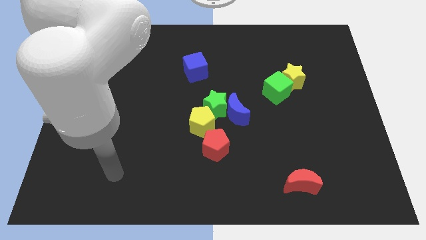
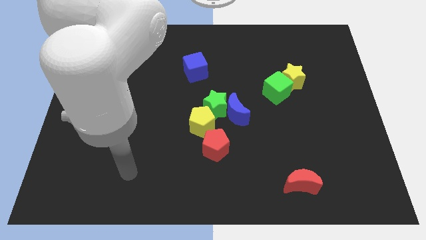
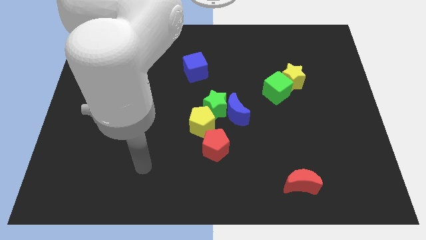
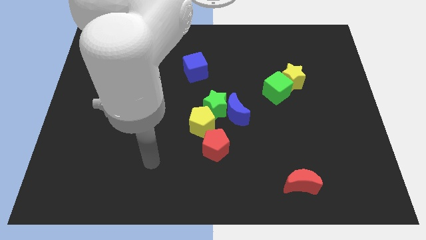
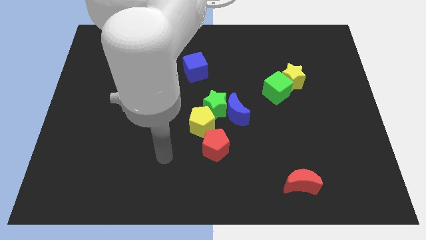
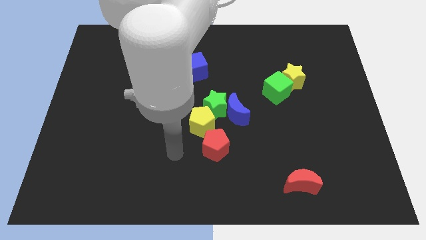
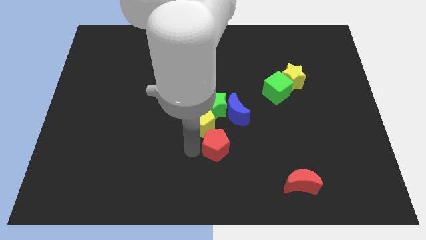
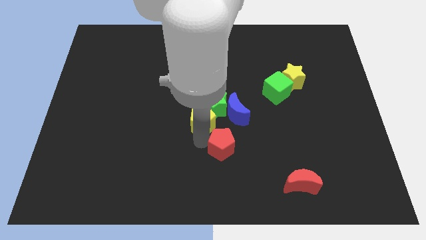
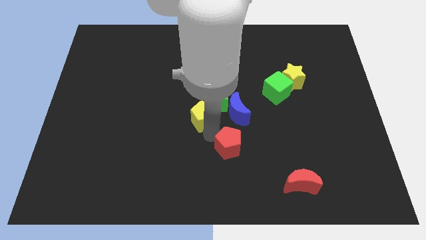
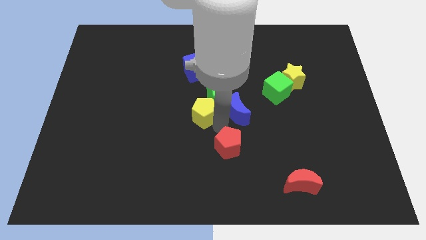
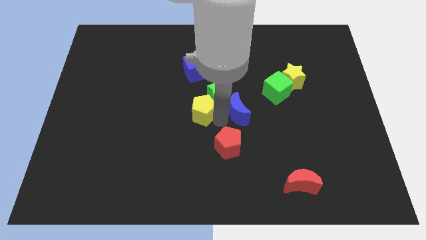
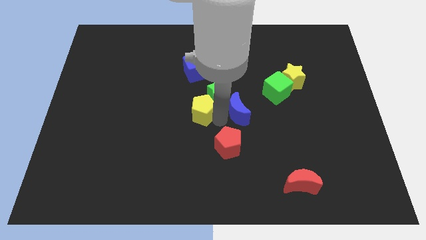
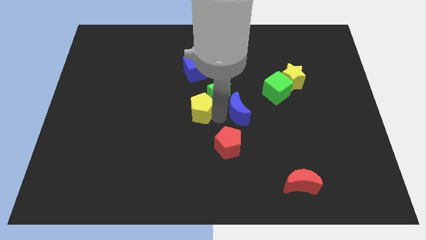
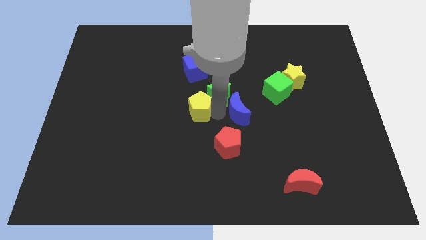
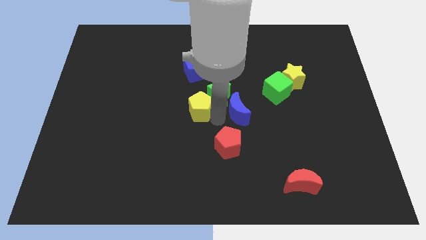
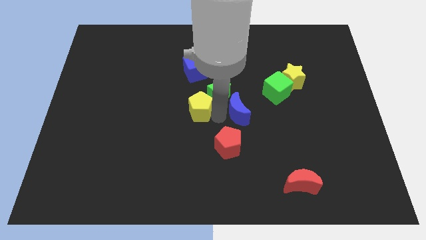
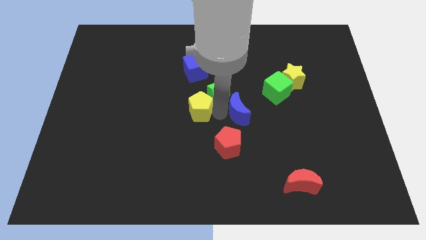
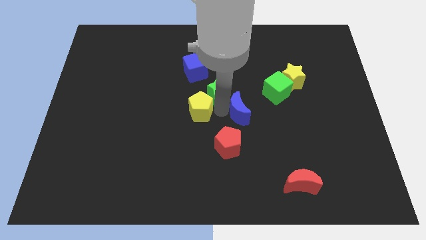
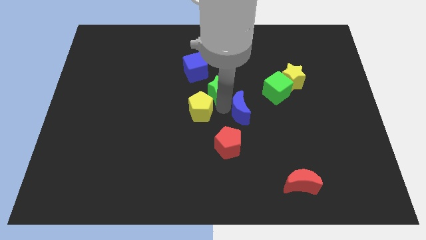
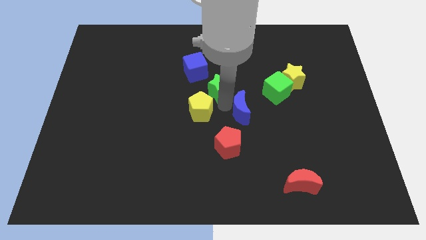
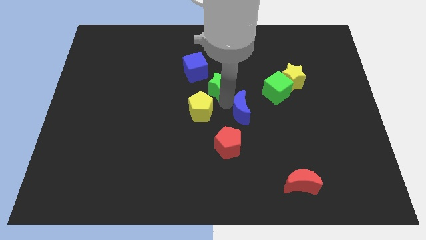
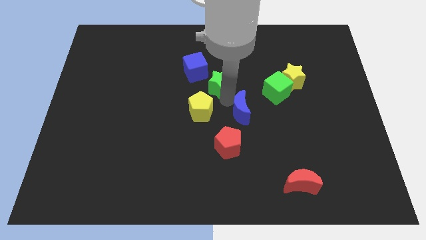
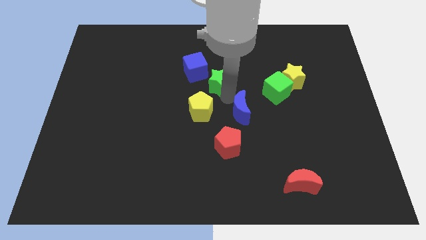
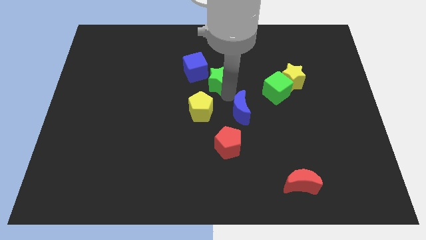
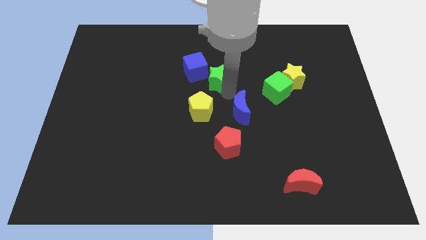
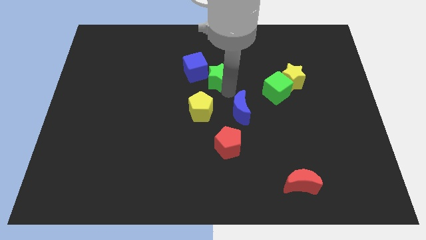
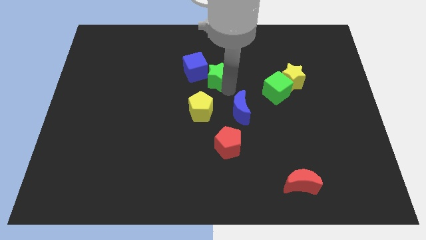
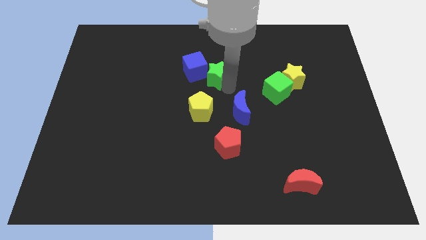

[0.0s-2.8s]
pull the green star apart from the blue moon and yellow pentagon

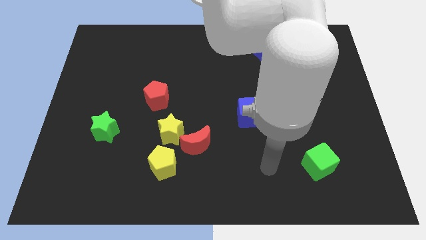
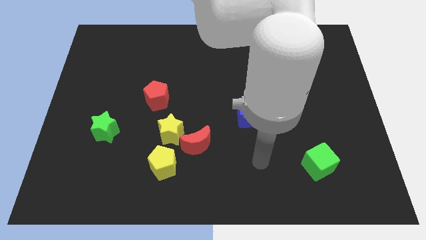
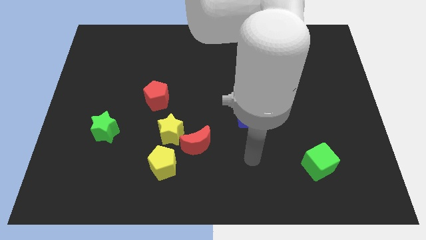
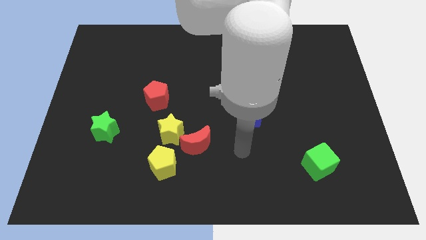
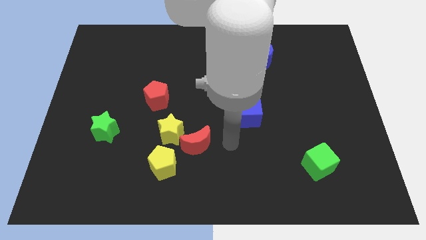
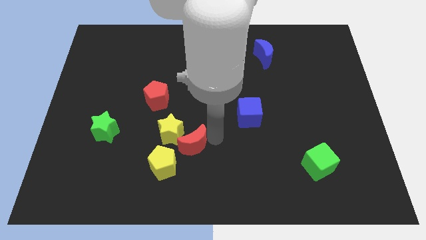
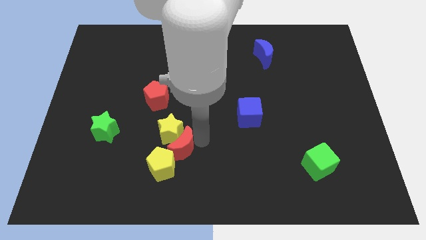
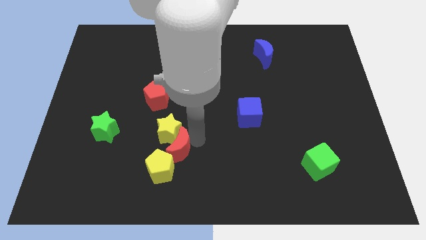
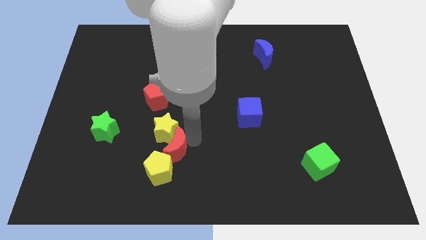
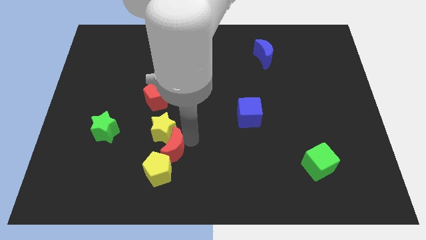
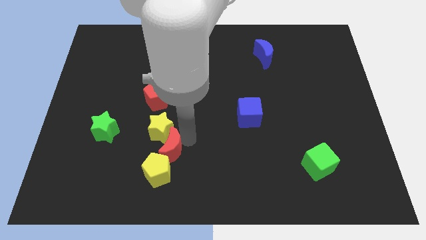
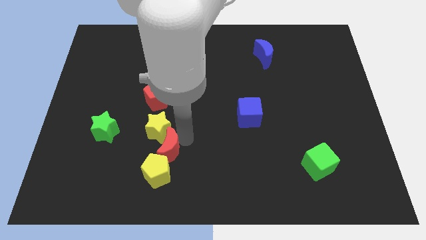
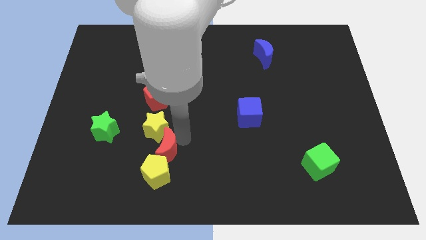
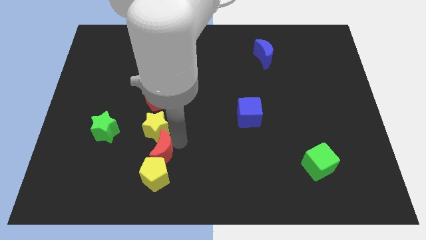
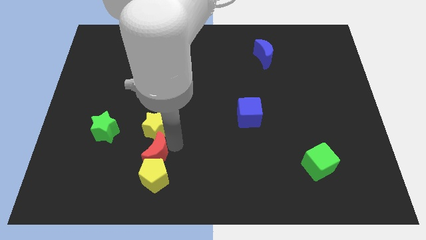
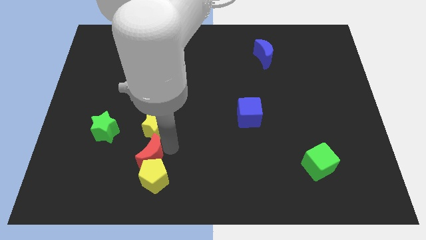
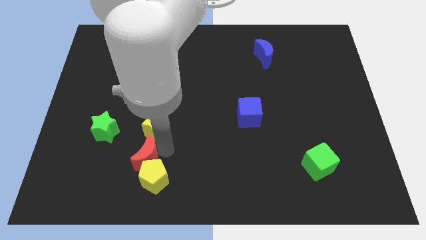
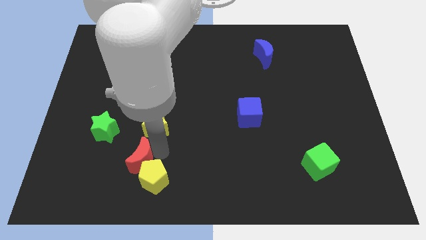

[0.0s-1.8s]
pull the yellow star apart from the red moon and yellow pentagon

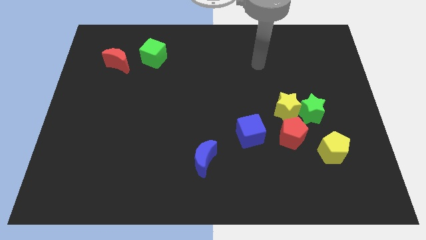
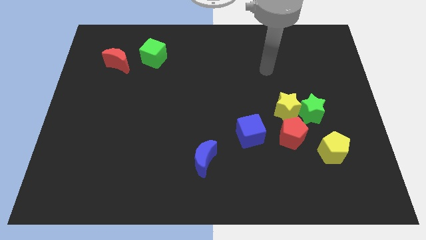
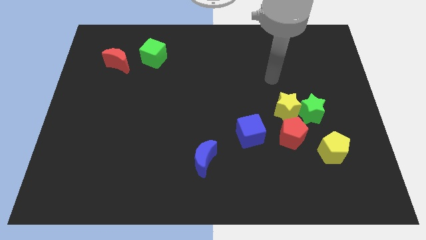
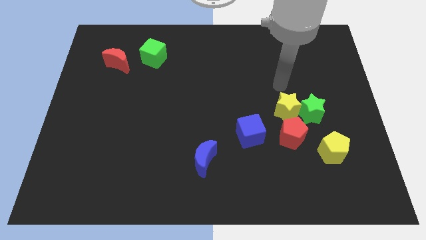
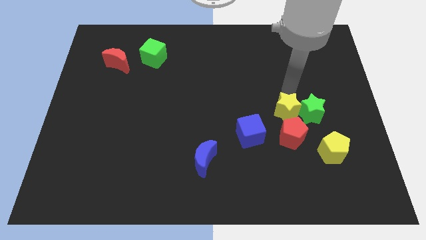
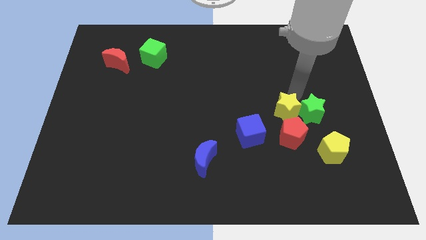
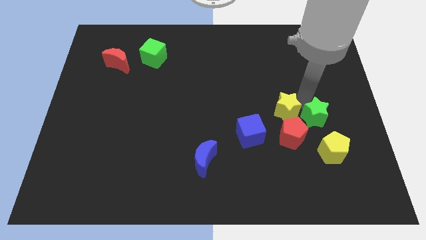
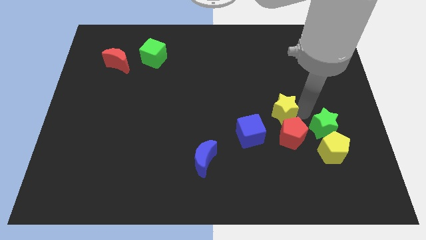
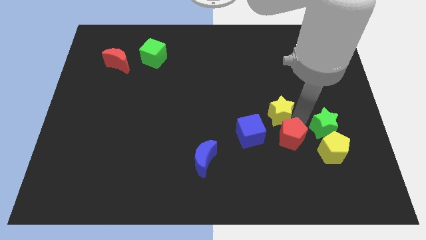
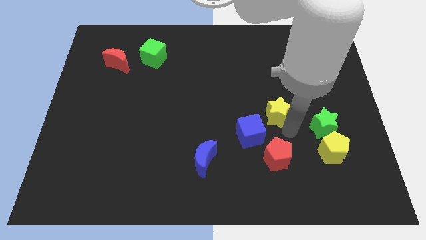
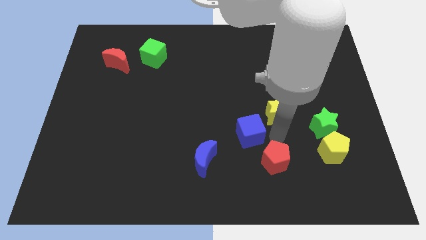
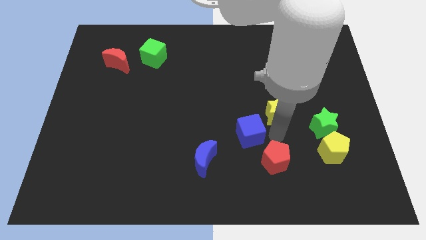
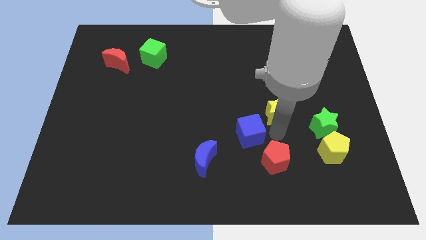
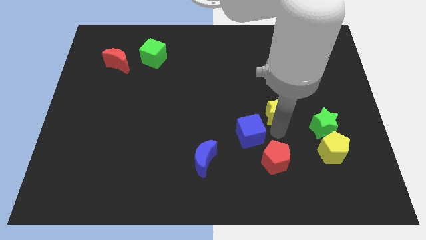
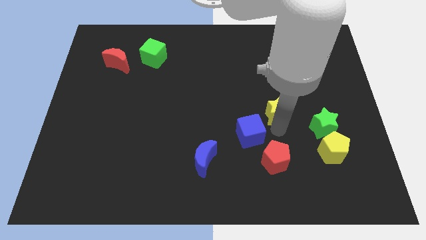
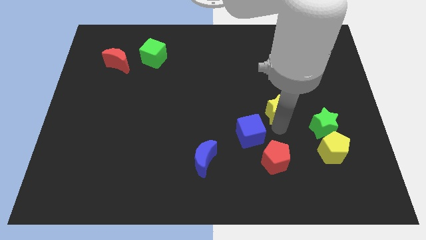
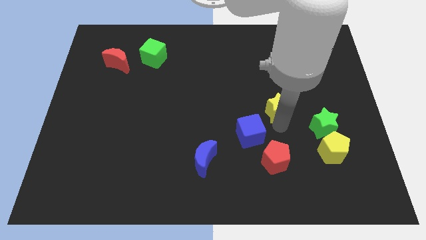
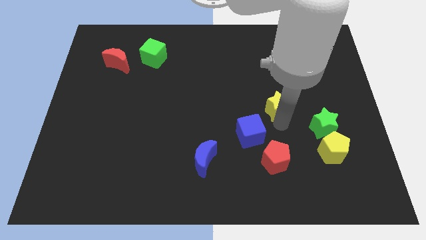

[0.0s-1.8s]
separate the yellow star from the green star and red pentagon

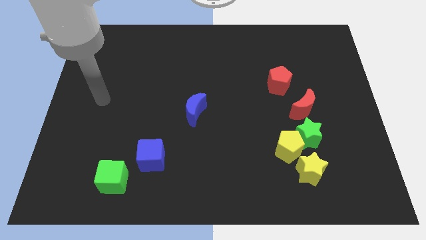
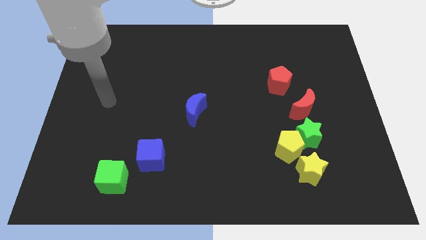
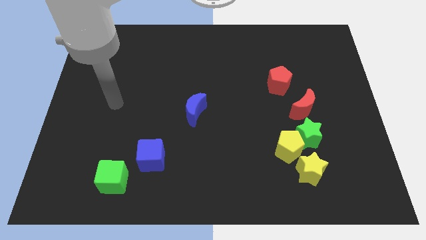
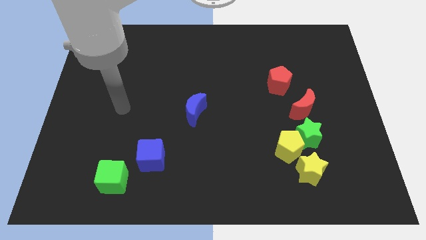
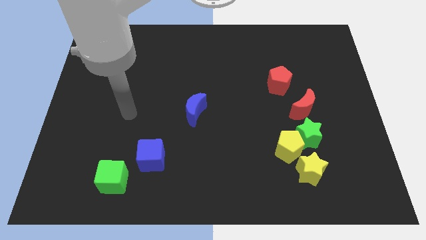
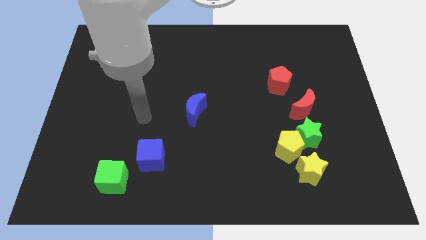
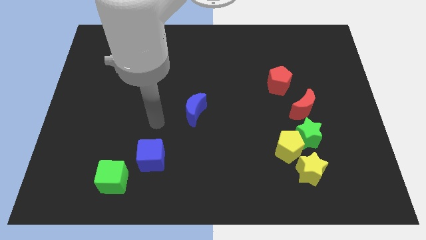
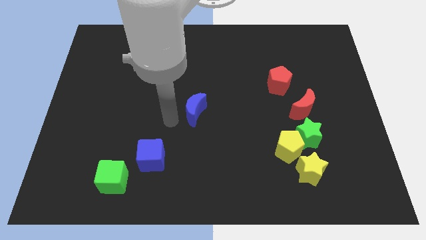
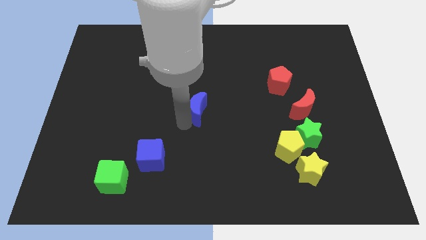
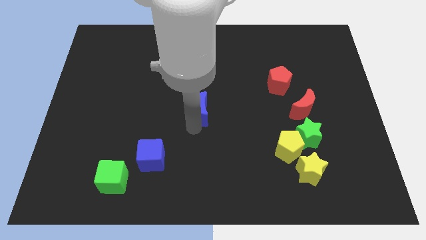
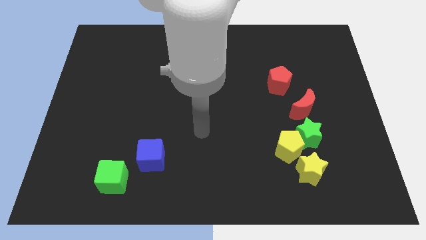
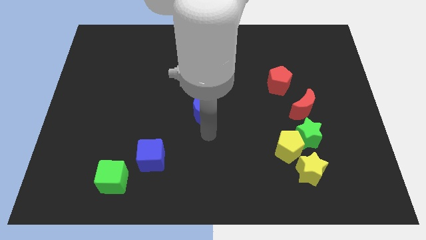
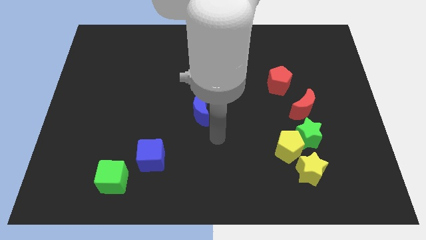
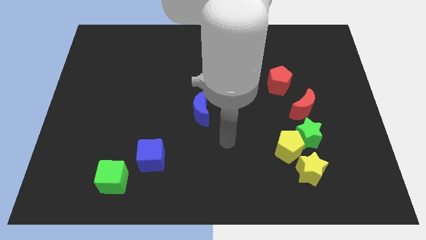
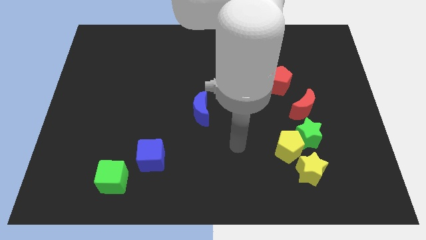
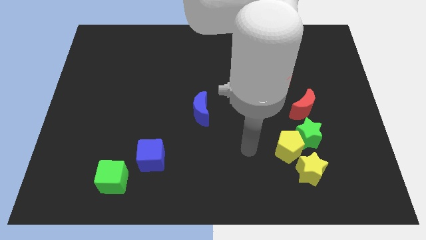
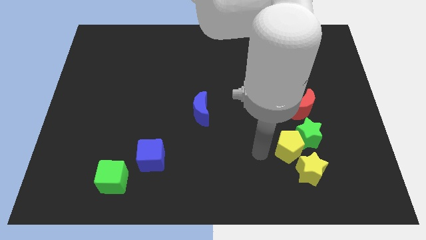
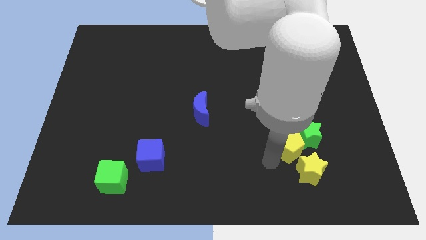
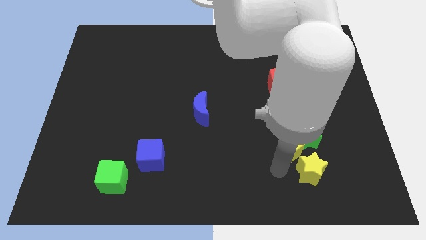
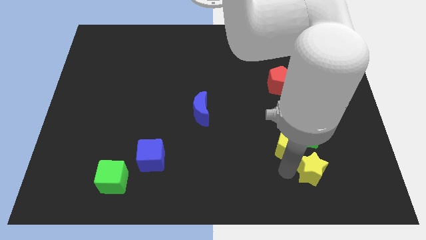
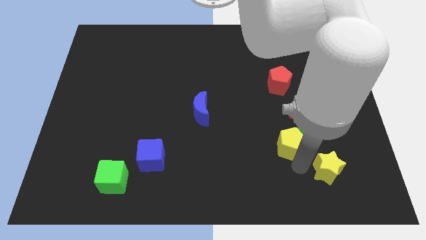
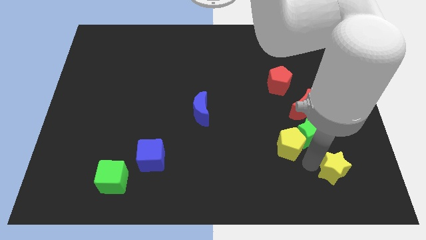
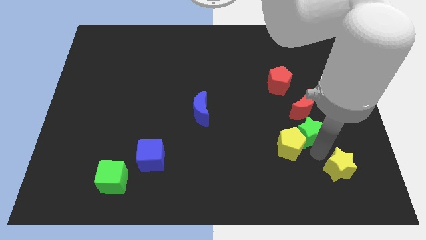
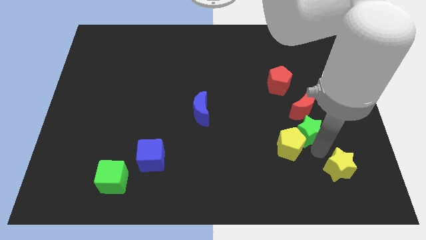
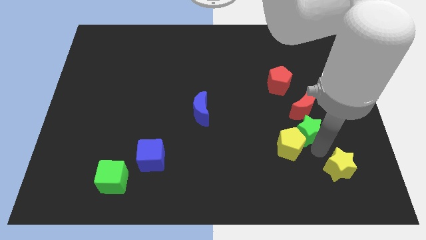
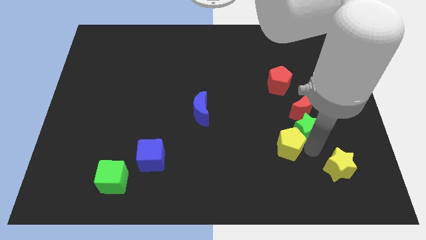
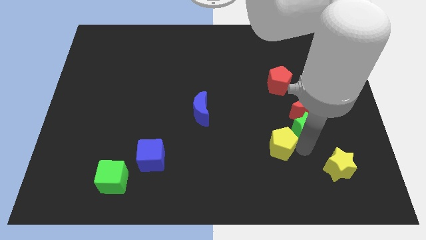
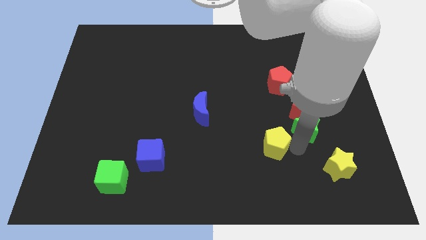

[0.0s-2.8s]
move the yellow pentagon away from the green star and yellow star

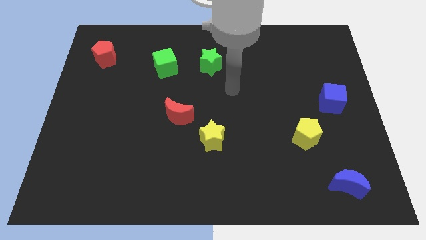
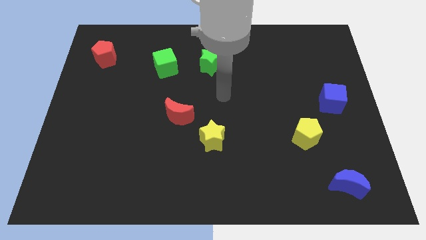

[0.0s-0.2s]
pull the red moon apart from the yellow star
